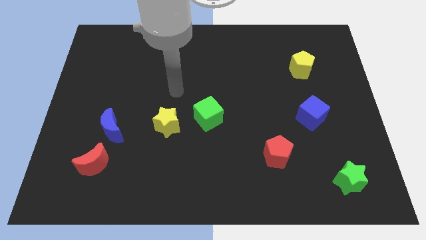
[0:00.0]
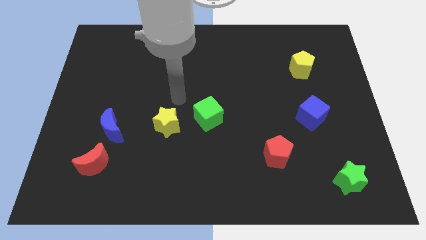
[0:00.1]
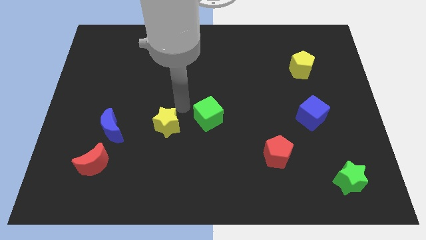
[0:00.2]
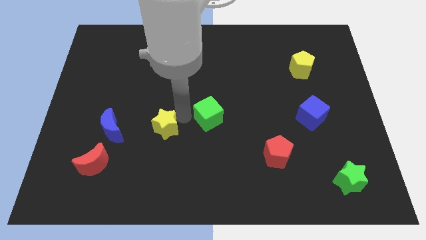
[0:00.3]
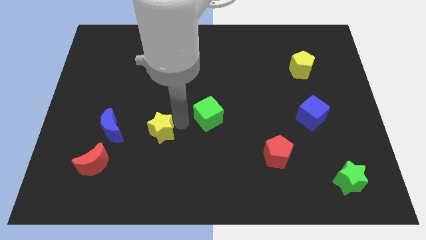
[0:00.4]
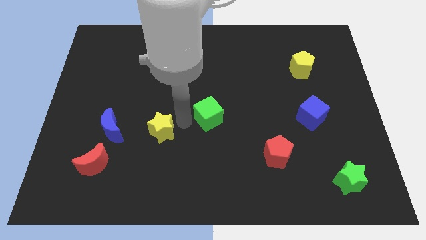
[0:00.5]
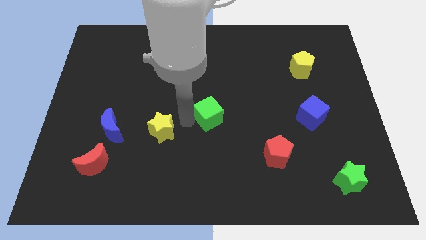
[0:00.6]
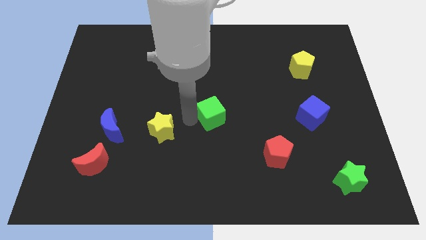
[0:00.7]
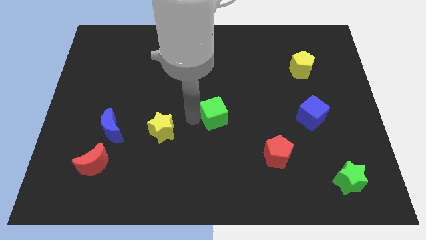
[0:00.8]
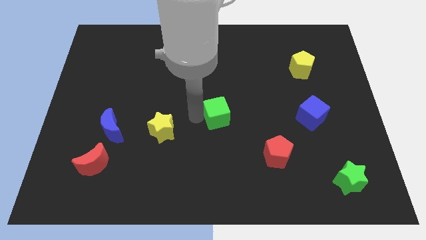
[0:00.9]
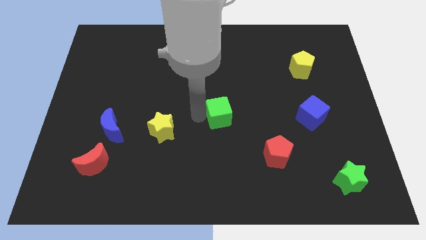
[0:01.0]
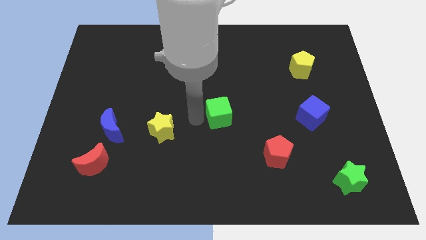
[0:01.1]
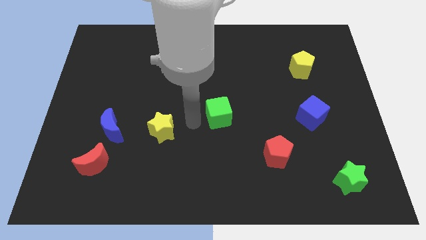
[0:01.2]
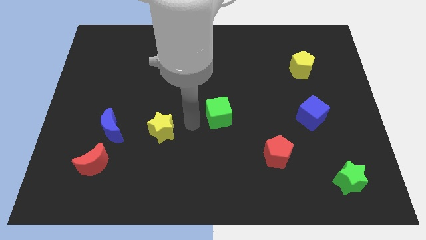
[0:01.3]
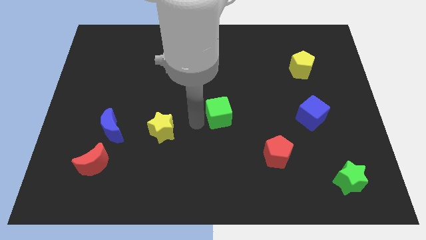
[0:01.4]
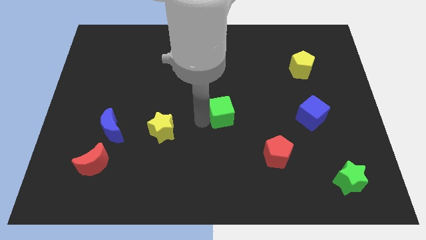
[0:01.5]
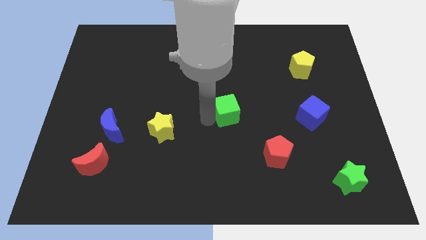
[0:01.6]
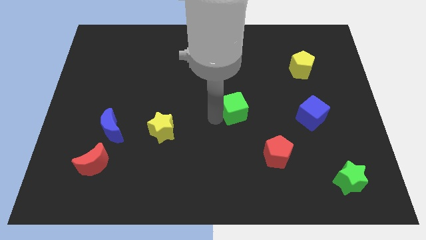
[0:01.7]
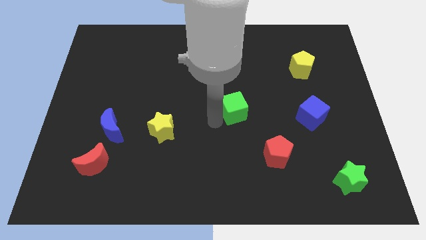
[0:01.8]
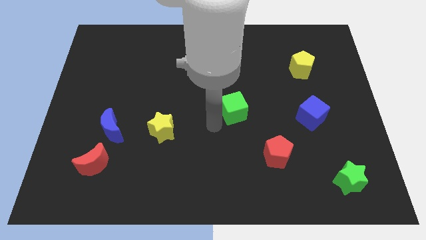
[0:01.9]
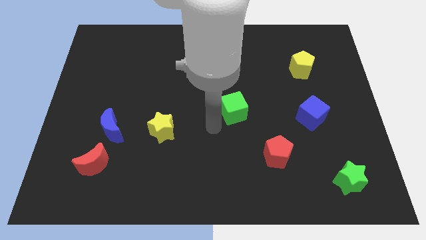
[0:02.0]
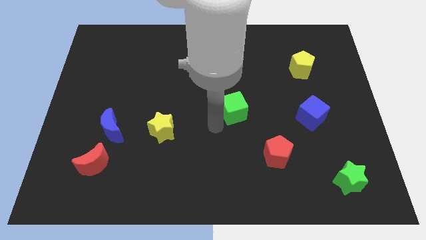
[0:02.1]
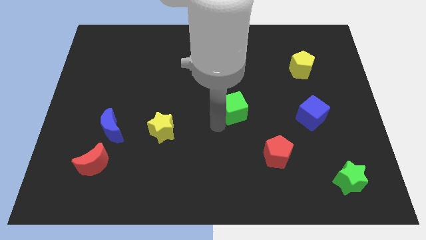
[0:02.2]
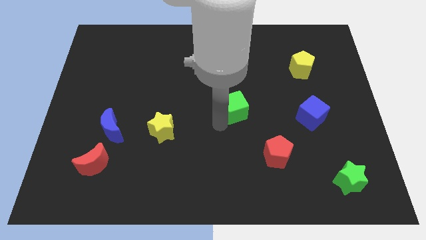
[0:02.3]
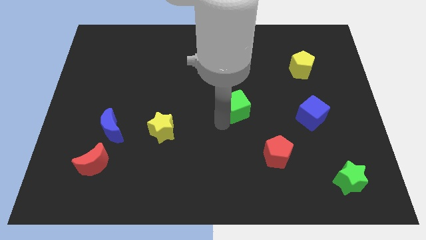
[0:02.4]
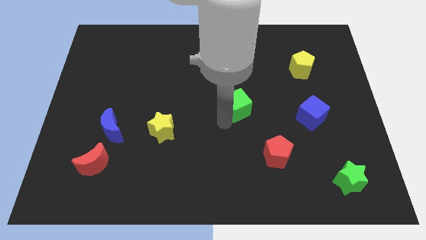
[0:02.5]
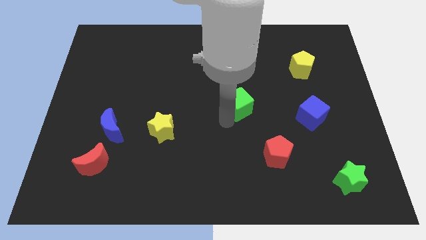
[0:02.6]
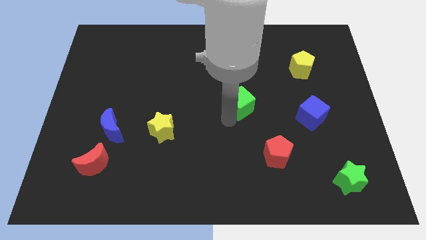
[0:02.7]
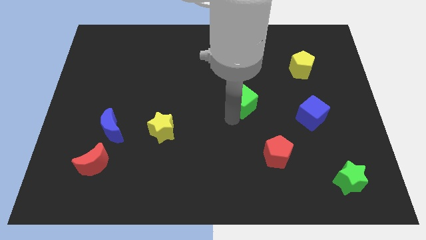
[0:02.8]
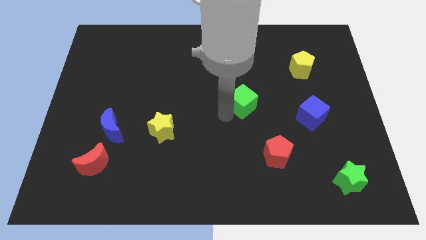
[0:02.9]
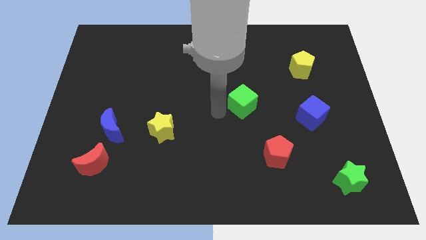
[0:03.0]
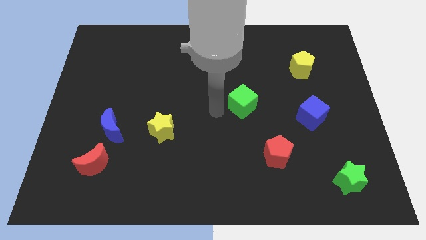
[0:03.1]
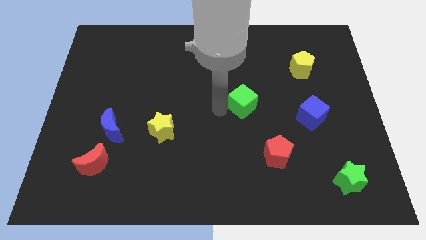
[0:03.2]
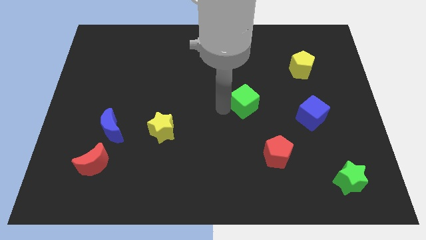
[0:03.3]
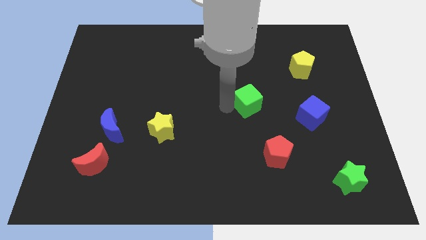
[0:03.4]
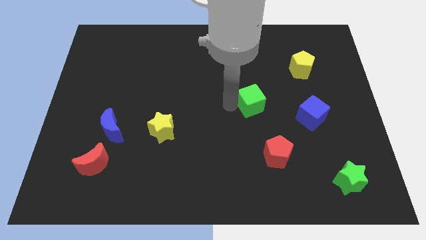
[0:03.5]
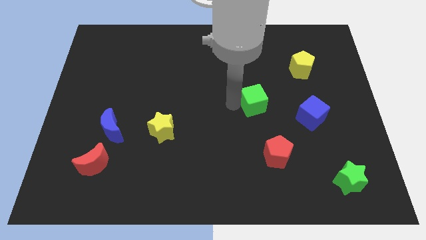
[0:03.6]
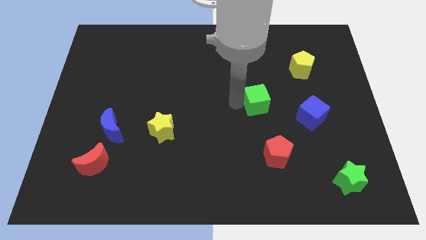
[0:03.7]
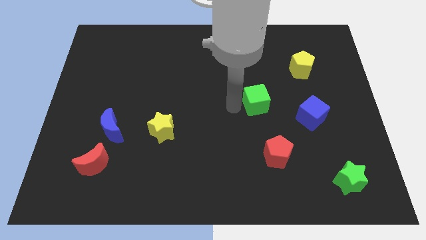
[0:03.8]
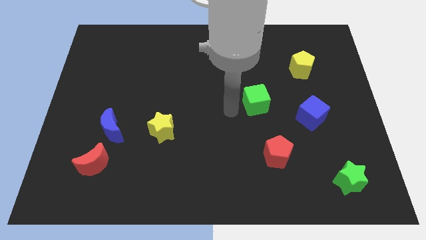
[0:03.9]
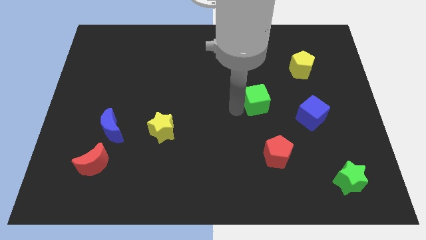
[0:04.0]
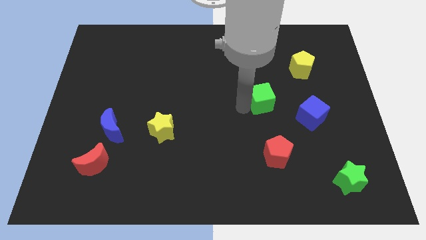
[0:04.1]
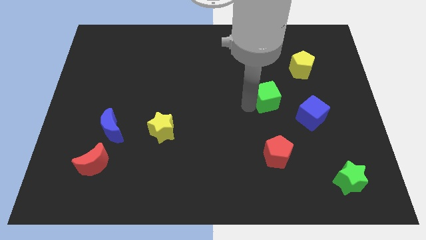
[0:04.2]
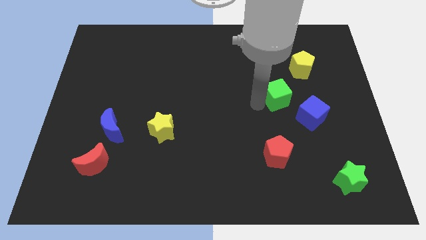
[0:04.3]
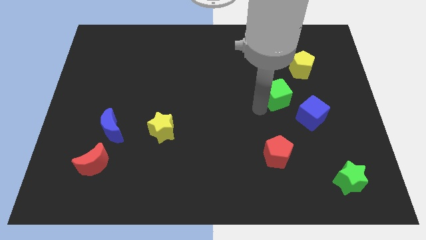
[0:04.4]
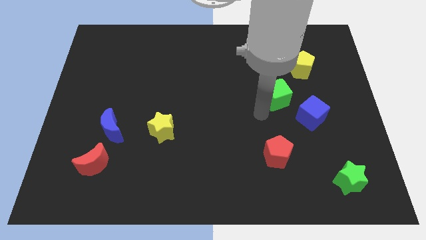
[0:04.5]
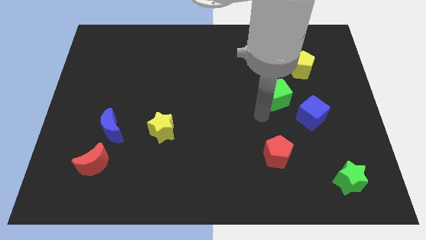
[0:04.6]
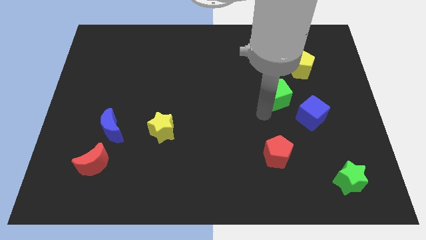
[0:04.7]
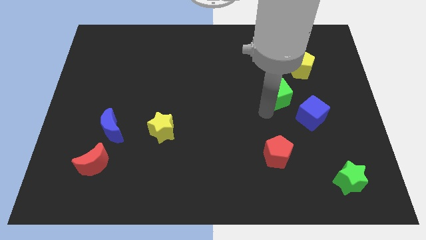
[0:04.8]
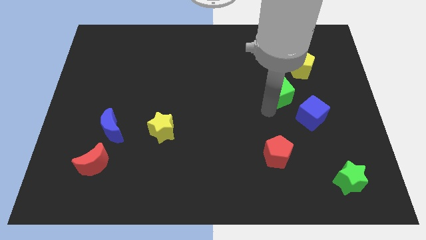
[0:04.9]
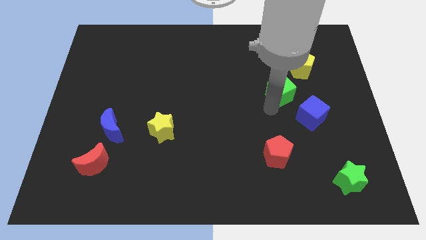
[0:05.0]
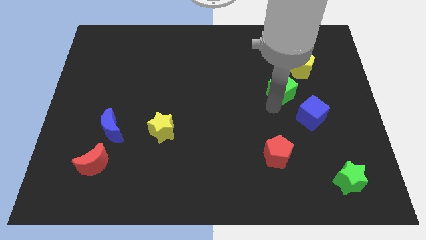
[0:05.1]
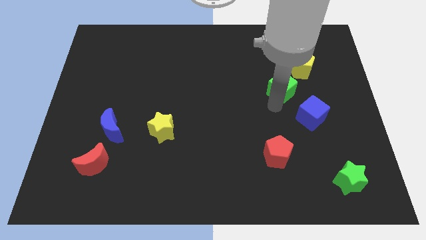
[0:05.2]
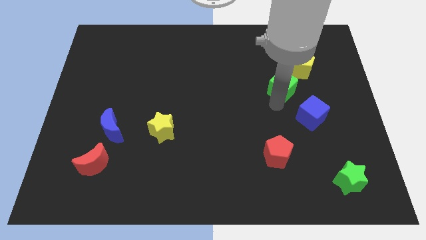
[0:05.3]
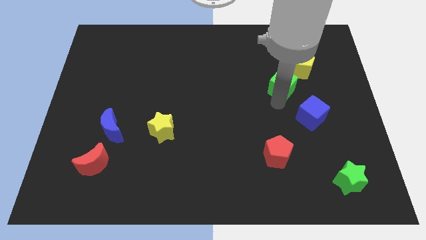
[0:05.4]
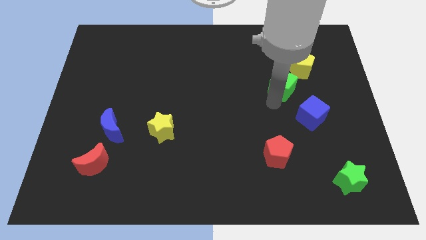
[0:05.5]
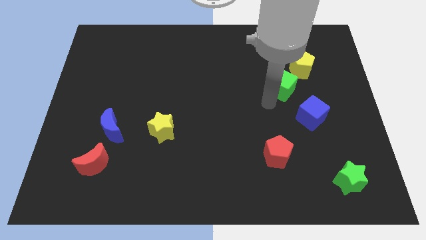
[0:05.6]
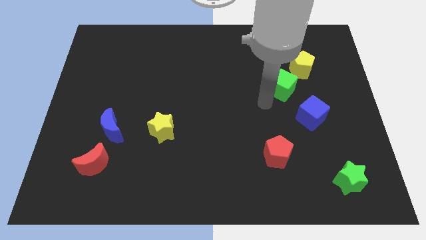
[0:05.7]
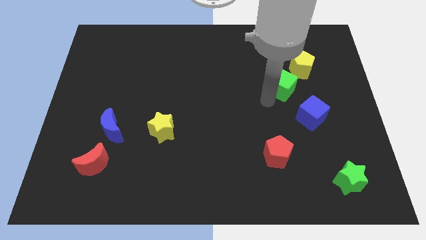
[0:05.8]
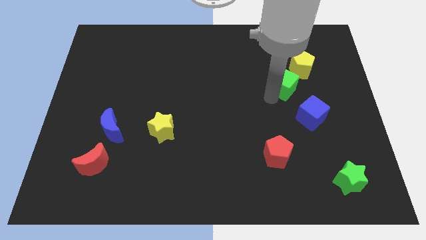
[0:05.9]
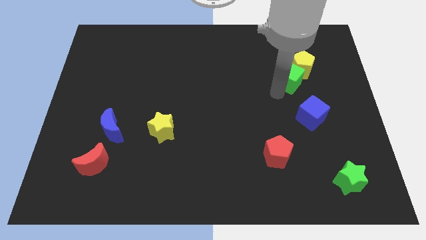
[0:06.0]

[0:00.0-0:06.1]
move the green cube next to the yellow pentagon

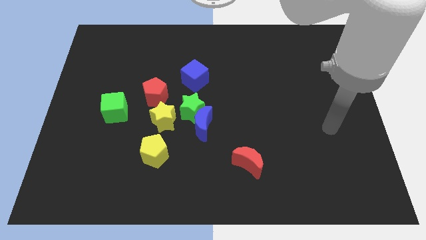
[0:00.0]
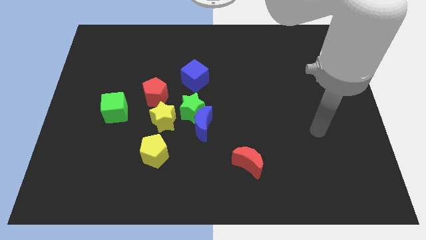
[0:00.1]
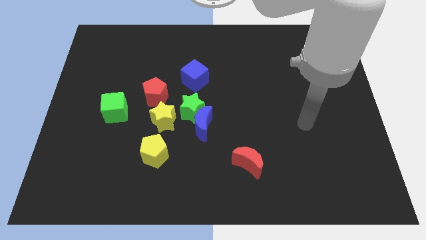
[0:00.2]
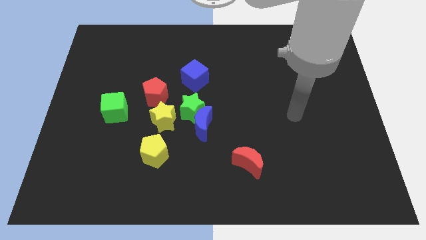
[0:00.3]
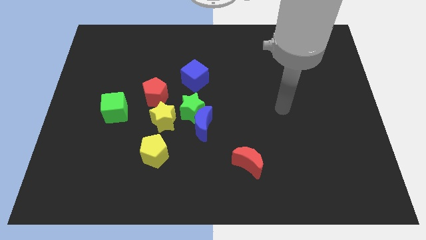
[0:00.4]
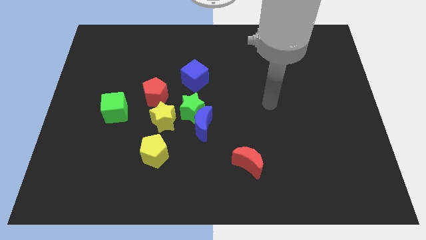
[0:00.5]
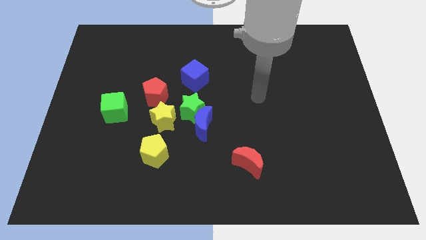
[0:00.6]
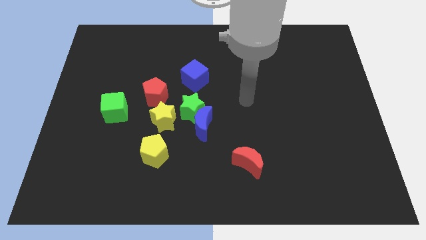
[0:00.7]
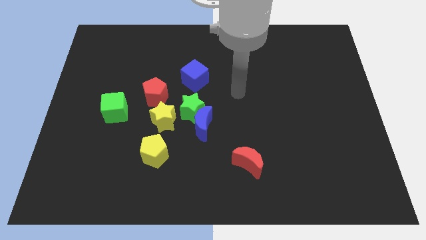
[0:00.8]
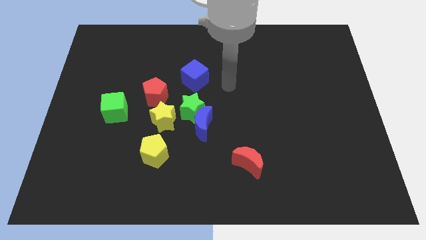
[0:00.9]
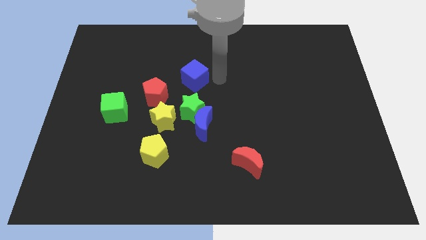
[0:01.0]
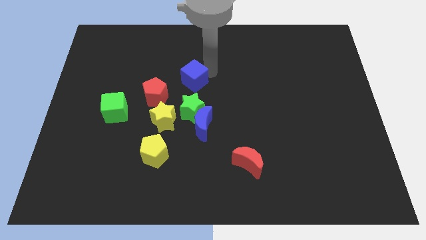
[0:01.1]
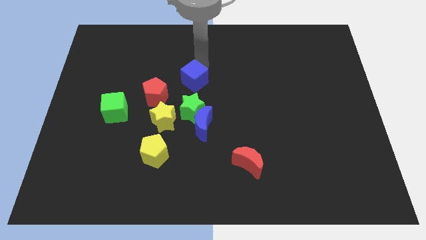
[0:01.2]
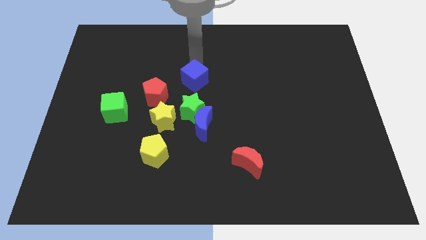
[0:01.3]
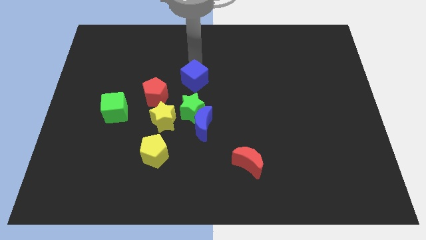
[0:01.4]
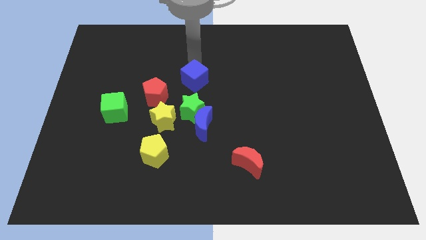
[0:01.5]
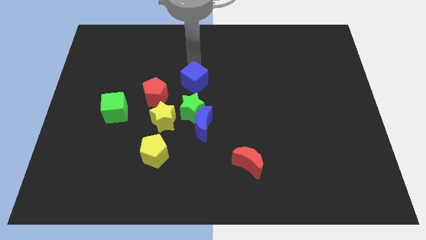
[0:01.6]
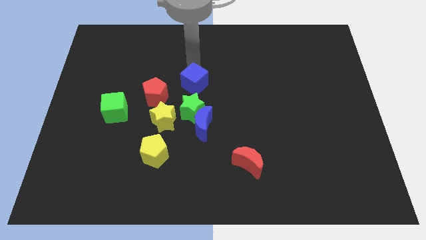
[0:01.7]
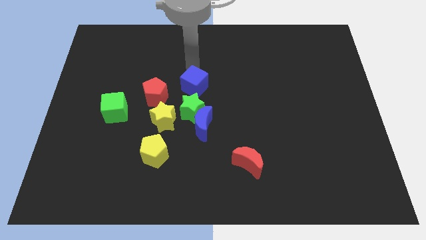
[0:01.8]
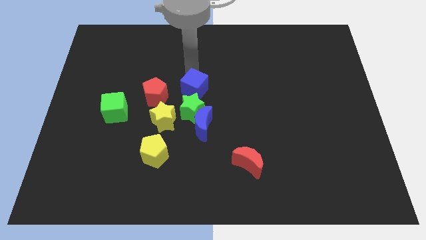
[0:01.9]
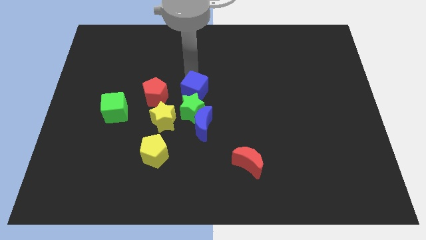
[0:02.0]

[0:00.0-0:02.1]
move the blue cube to the green star
